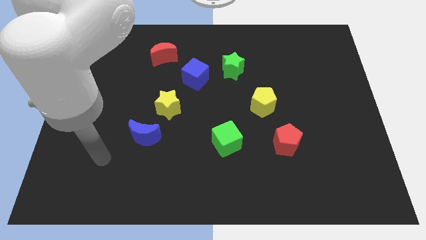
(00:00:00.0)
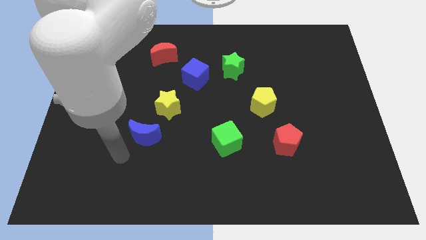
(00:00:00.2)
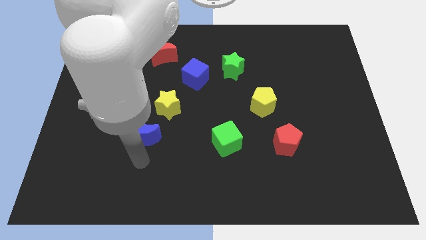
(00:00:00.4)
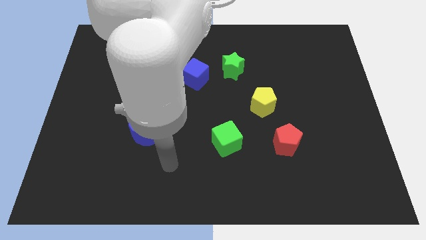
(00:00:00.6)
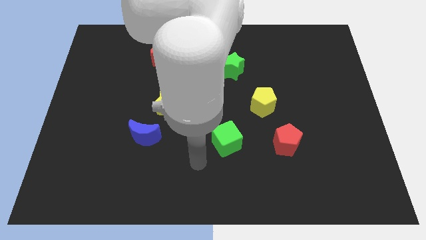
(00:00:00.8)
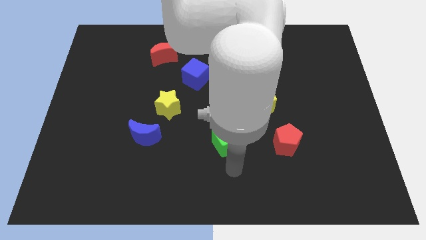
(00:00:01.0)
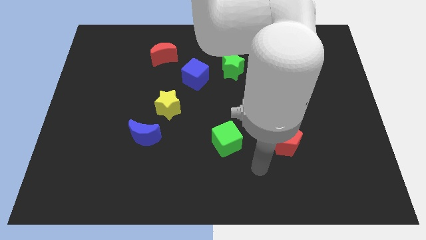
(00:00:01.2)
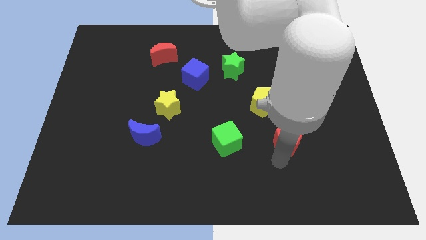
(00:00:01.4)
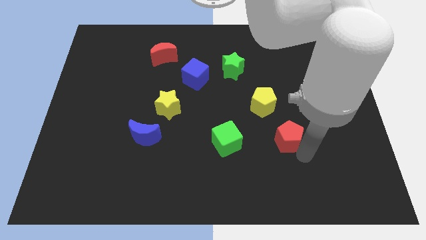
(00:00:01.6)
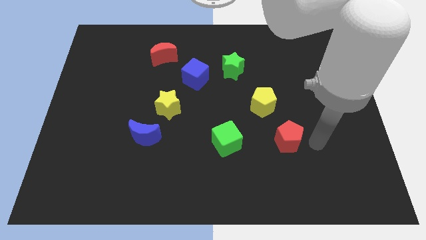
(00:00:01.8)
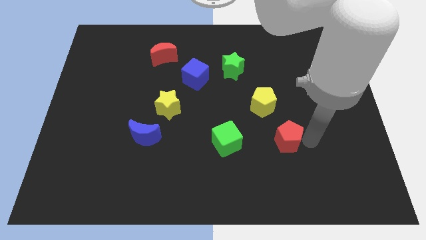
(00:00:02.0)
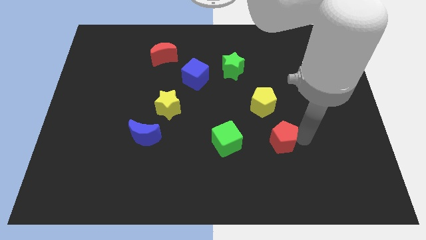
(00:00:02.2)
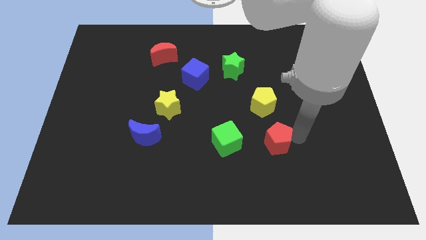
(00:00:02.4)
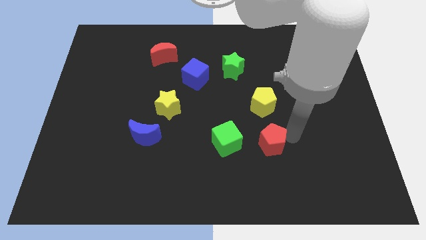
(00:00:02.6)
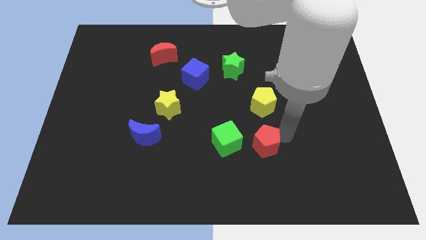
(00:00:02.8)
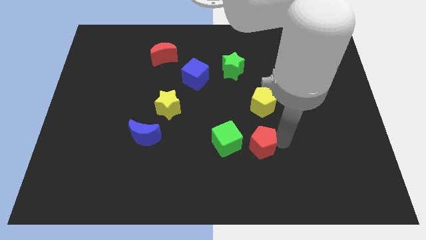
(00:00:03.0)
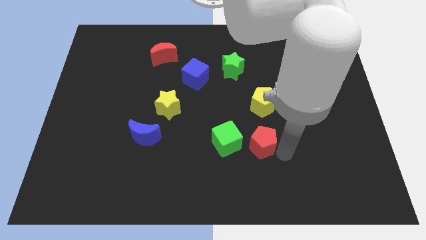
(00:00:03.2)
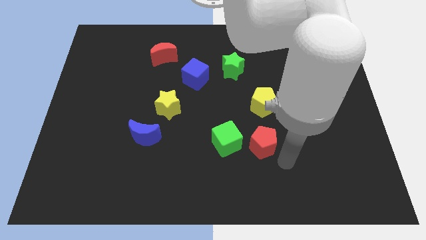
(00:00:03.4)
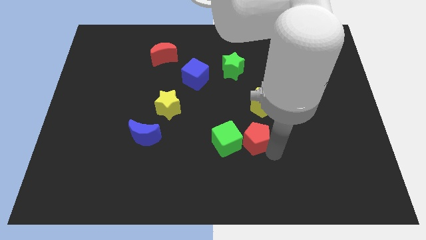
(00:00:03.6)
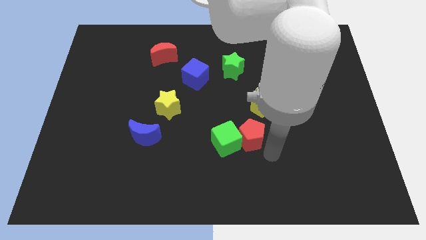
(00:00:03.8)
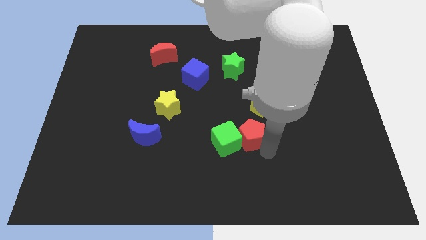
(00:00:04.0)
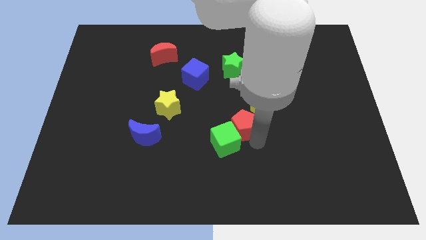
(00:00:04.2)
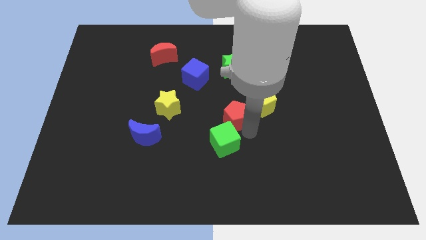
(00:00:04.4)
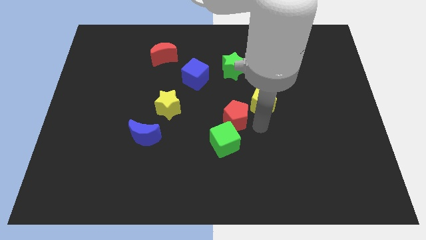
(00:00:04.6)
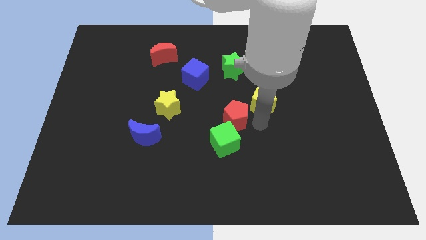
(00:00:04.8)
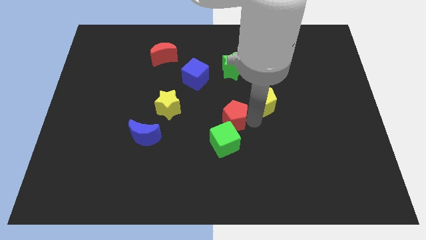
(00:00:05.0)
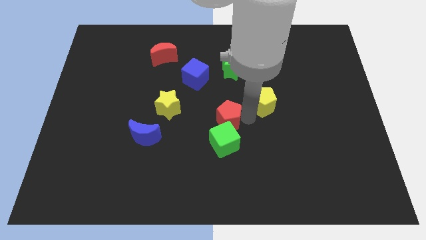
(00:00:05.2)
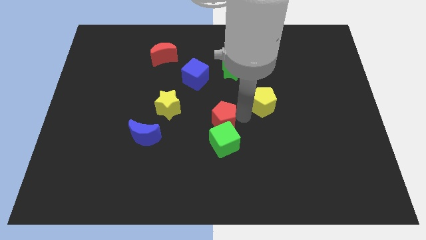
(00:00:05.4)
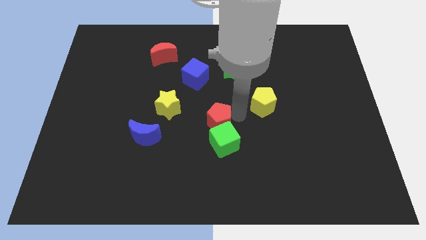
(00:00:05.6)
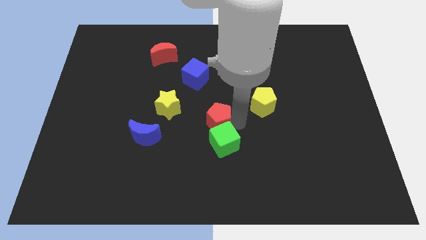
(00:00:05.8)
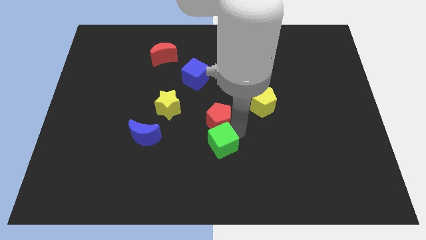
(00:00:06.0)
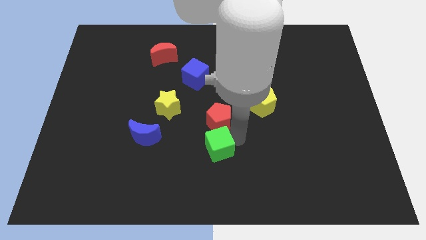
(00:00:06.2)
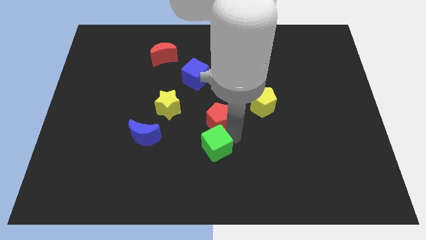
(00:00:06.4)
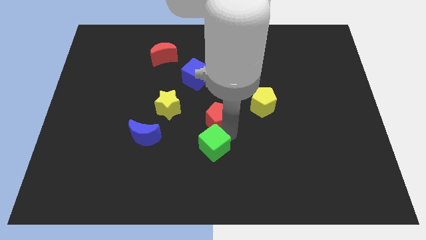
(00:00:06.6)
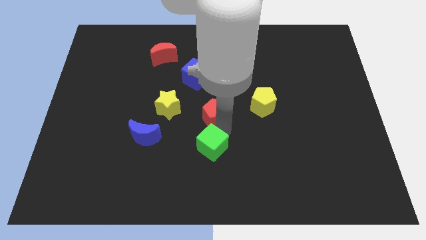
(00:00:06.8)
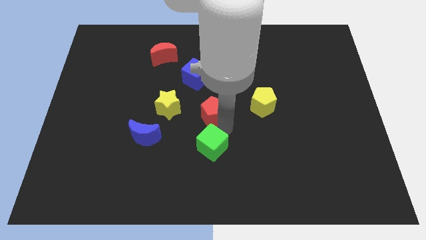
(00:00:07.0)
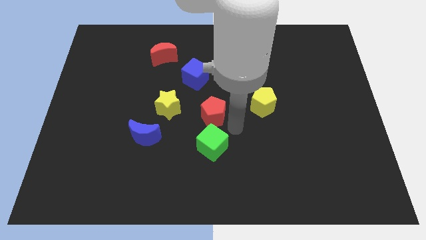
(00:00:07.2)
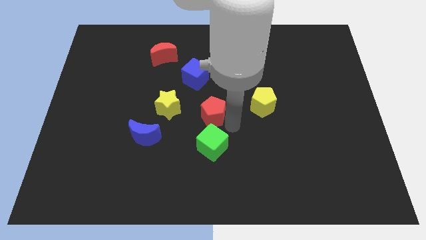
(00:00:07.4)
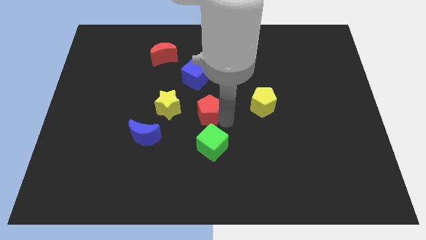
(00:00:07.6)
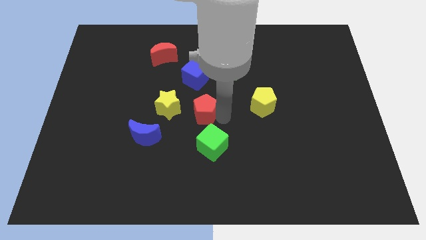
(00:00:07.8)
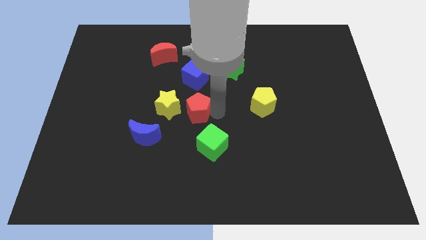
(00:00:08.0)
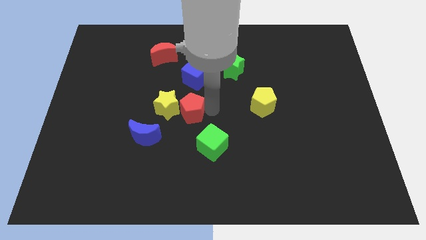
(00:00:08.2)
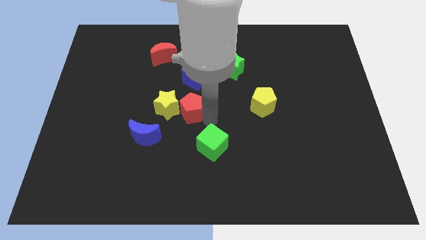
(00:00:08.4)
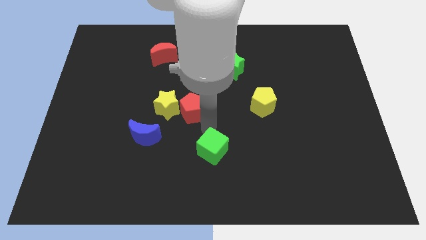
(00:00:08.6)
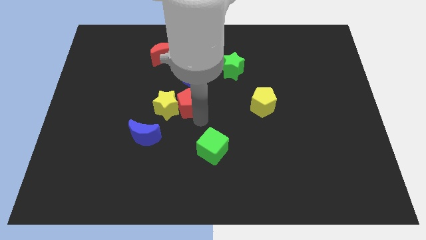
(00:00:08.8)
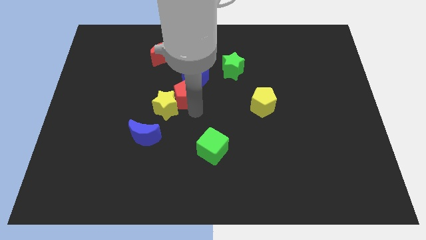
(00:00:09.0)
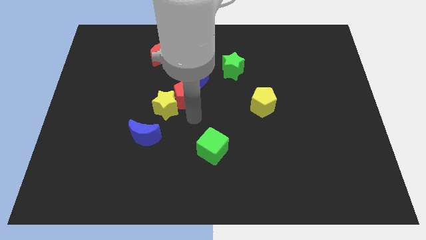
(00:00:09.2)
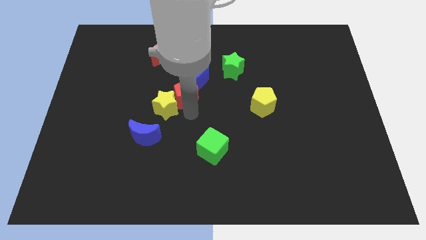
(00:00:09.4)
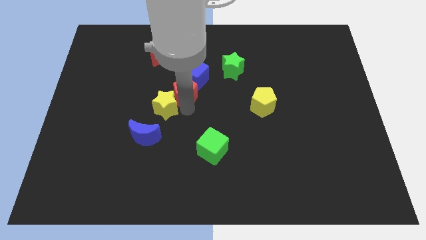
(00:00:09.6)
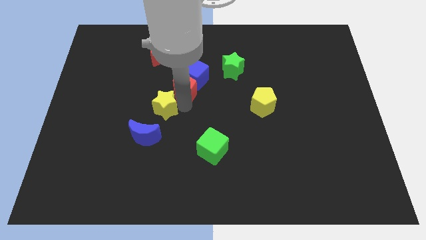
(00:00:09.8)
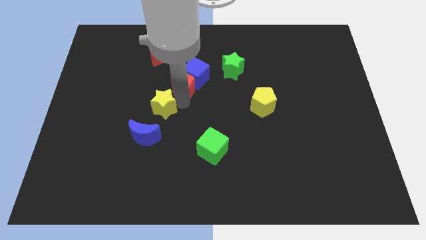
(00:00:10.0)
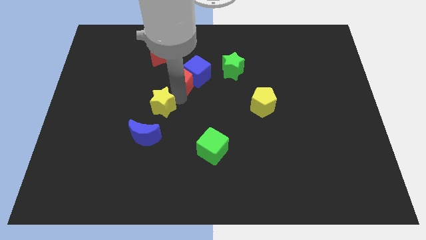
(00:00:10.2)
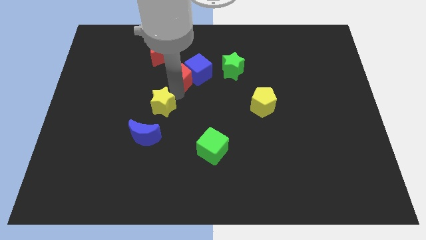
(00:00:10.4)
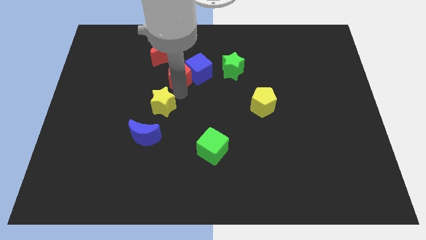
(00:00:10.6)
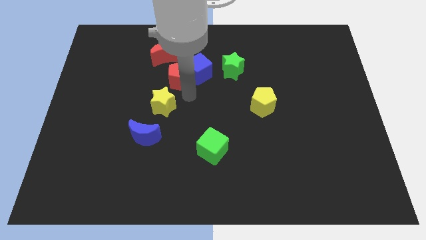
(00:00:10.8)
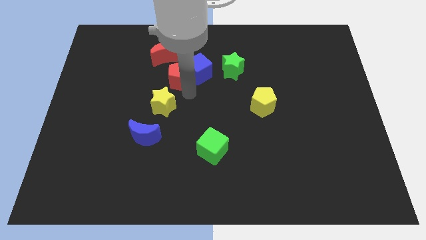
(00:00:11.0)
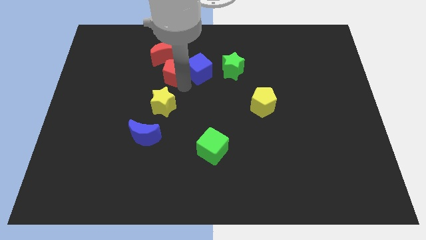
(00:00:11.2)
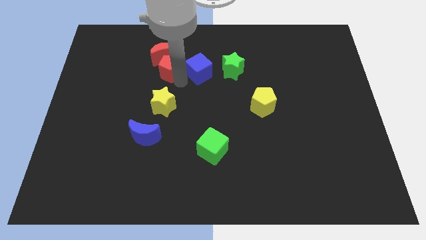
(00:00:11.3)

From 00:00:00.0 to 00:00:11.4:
slide the red pentagon towards the red moon

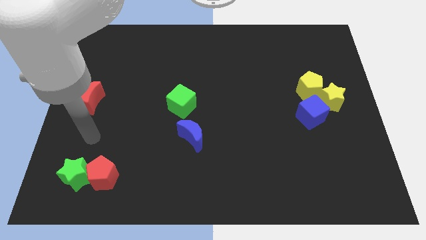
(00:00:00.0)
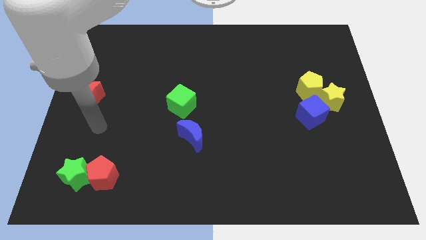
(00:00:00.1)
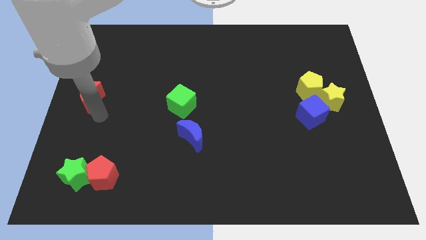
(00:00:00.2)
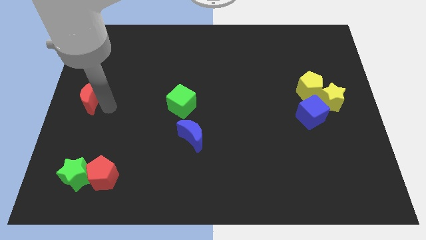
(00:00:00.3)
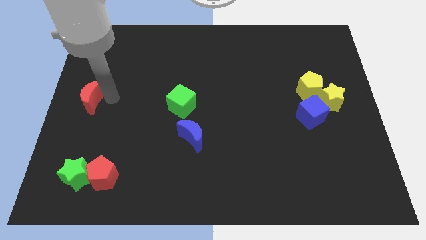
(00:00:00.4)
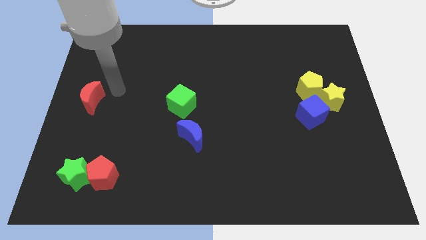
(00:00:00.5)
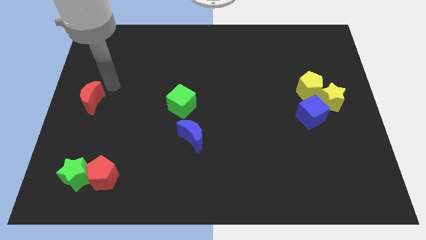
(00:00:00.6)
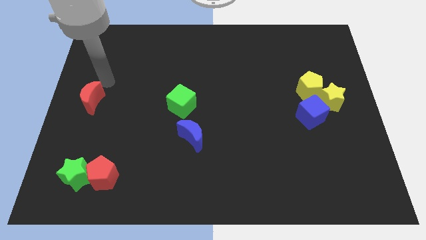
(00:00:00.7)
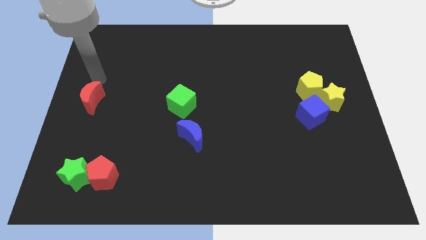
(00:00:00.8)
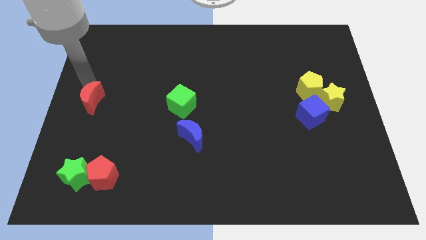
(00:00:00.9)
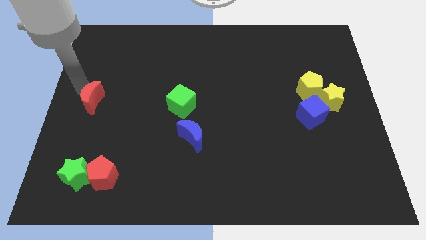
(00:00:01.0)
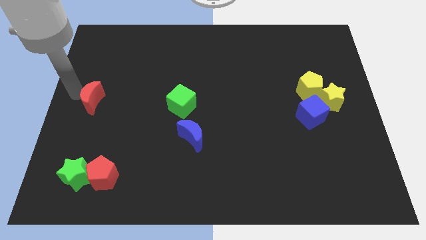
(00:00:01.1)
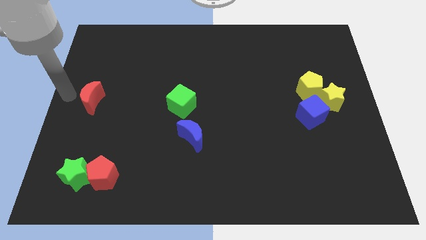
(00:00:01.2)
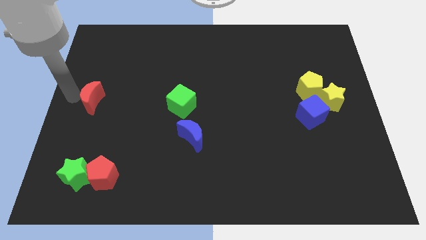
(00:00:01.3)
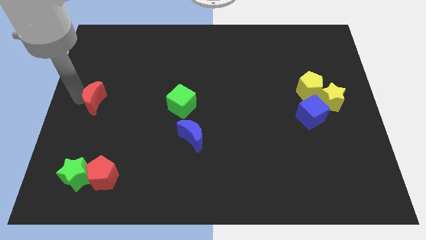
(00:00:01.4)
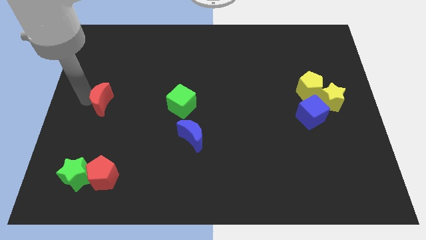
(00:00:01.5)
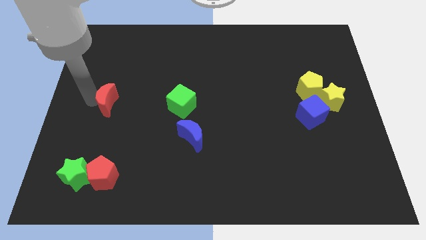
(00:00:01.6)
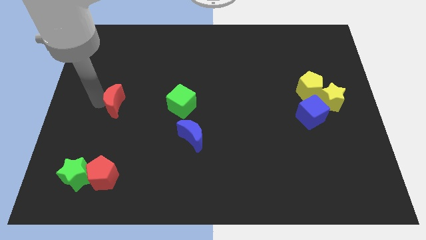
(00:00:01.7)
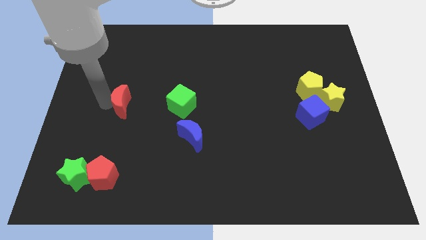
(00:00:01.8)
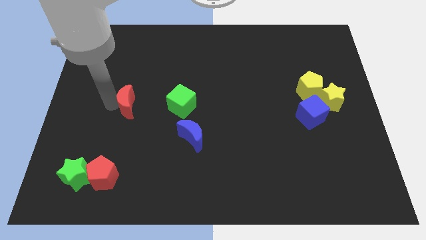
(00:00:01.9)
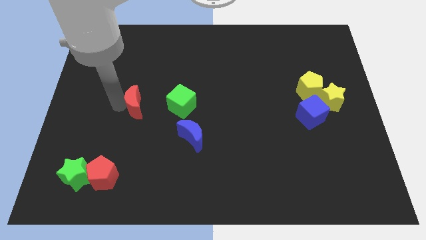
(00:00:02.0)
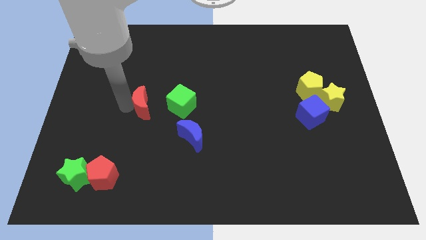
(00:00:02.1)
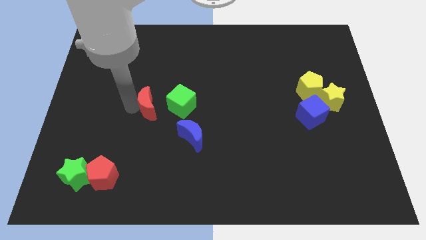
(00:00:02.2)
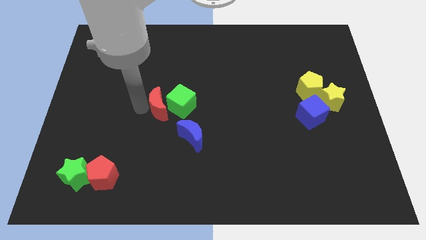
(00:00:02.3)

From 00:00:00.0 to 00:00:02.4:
slide the red moon close to the green cube
